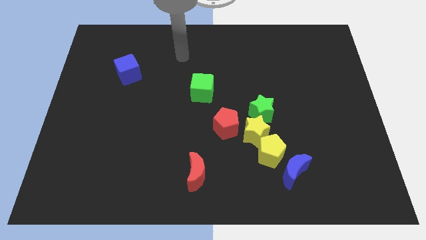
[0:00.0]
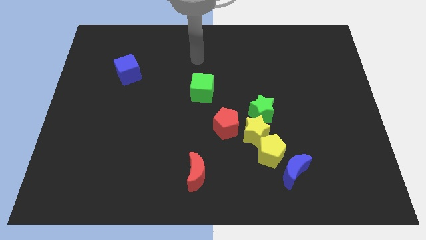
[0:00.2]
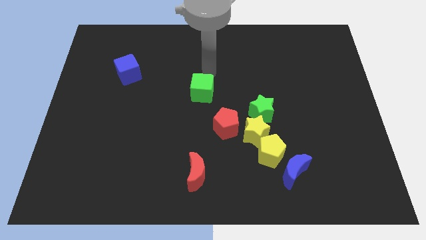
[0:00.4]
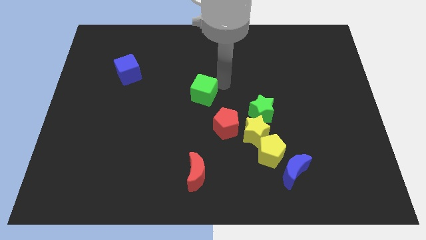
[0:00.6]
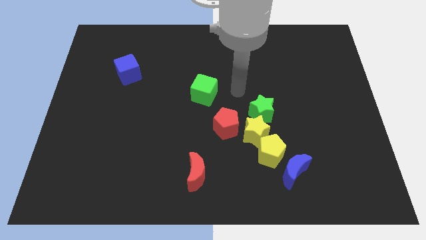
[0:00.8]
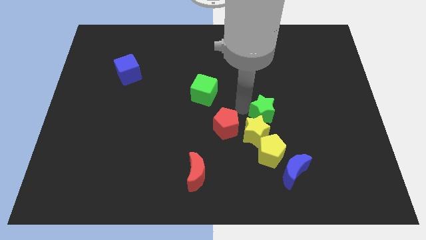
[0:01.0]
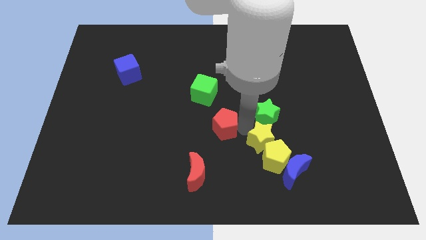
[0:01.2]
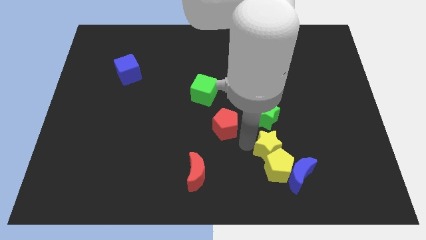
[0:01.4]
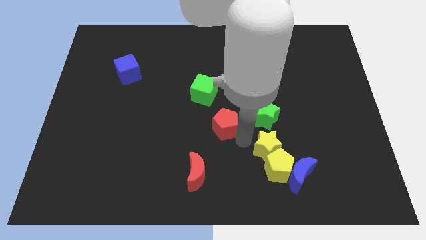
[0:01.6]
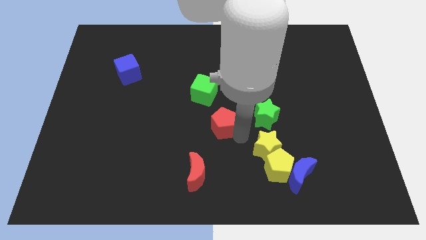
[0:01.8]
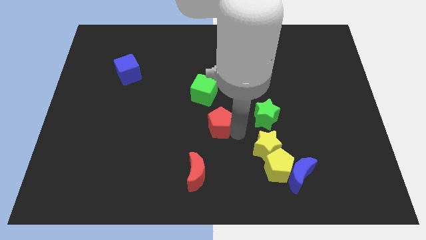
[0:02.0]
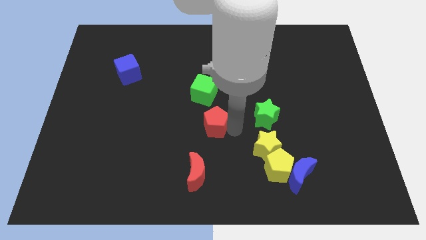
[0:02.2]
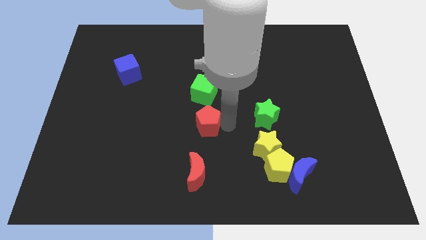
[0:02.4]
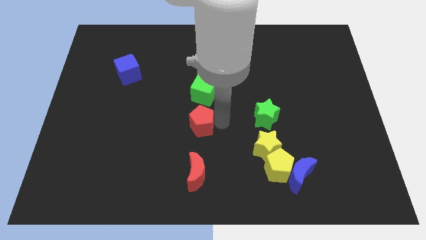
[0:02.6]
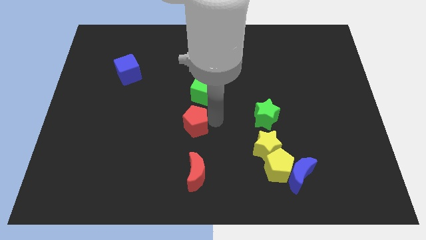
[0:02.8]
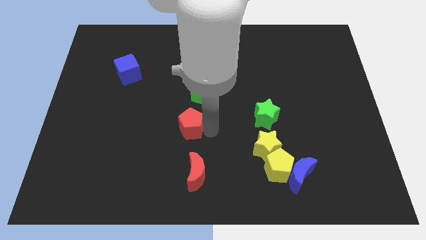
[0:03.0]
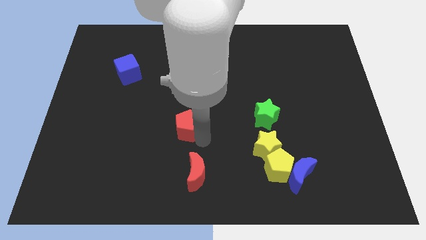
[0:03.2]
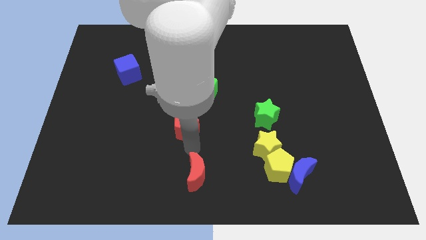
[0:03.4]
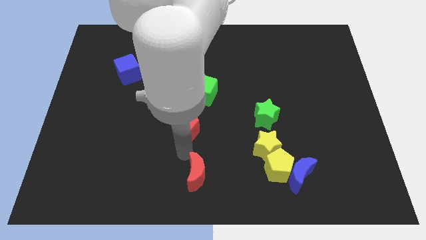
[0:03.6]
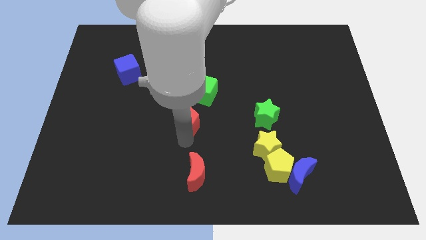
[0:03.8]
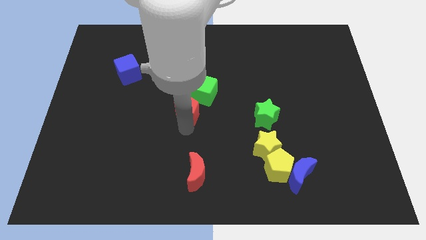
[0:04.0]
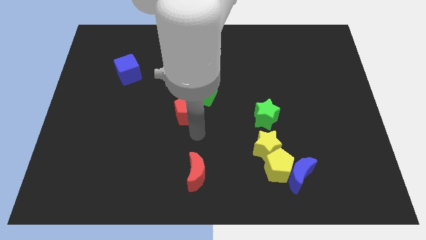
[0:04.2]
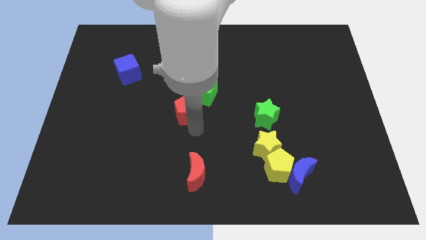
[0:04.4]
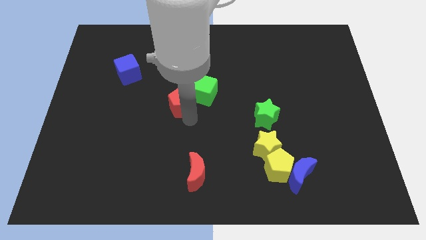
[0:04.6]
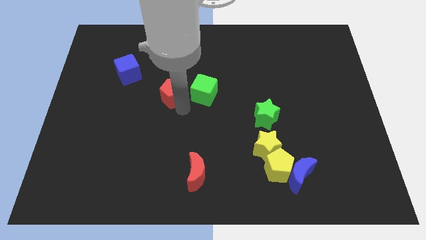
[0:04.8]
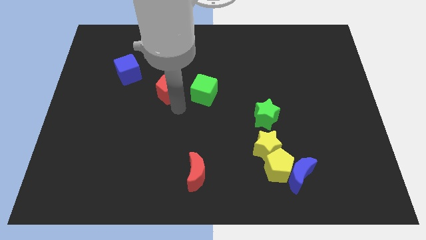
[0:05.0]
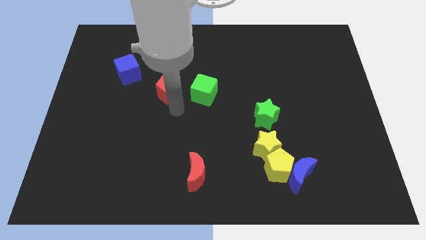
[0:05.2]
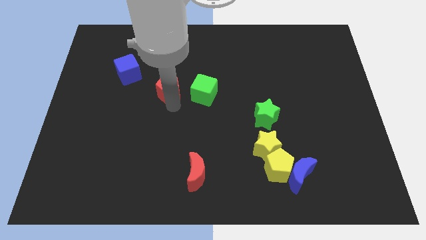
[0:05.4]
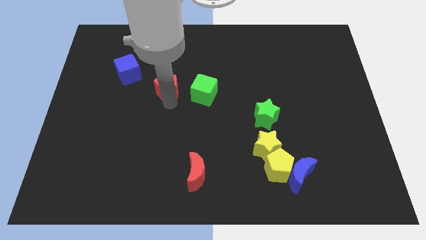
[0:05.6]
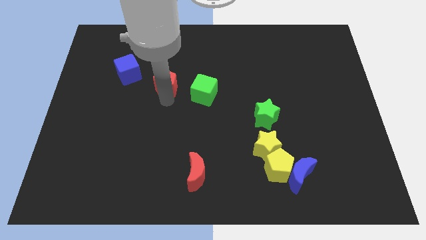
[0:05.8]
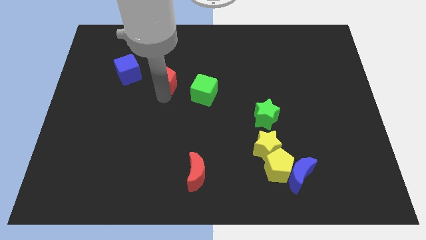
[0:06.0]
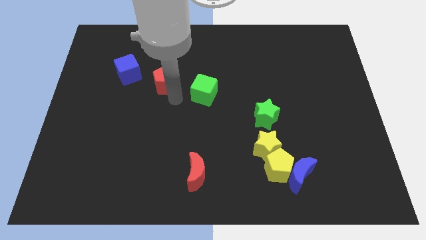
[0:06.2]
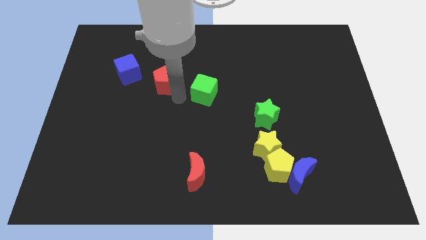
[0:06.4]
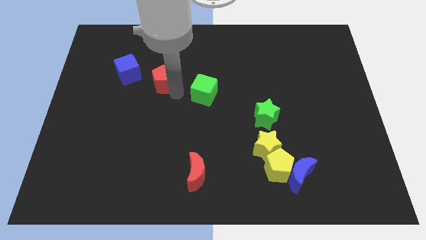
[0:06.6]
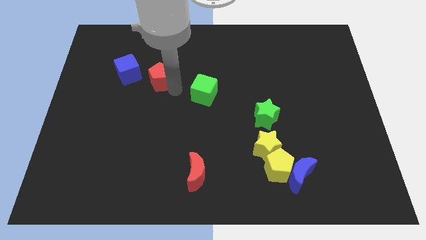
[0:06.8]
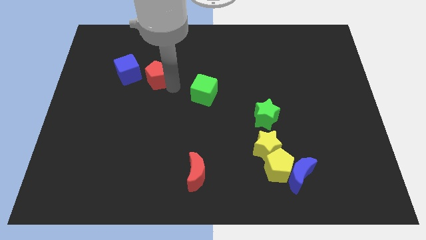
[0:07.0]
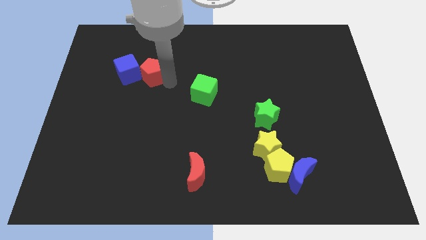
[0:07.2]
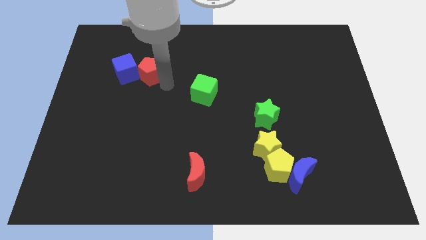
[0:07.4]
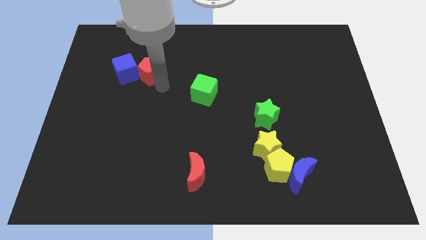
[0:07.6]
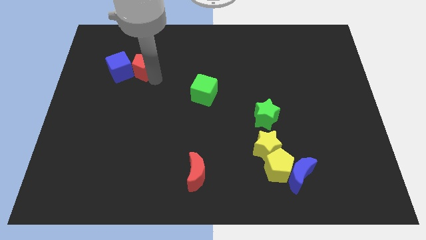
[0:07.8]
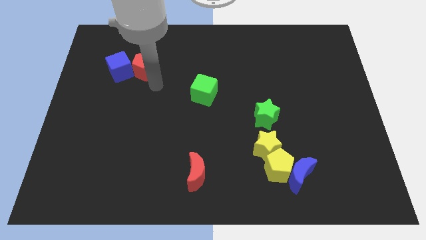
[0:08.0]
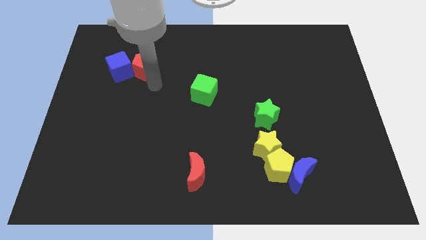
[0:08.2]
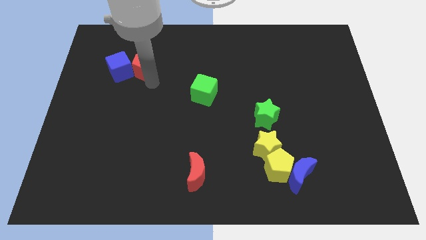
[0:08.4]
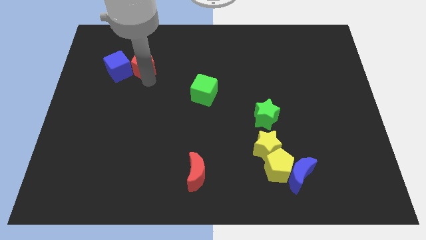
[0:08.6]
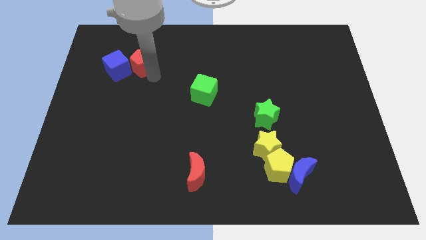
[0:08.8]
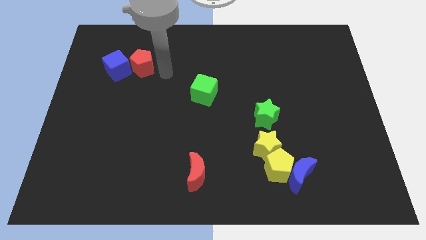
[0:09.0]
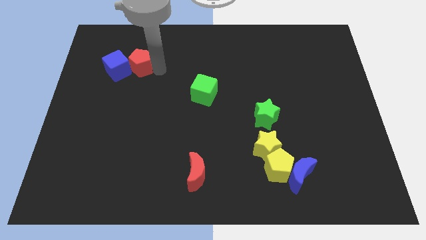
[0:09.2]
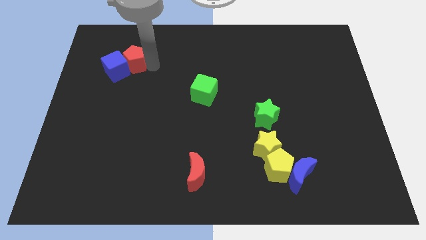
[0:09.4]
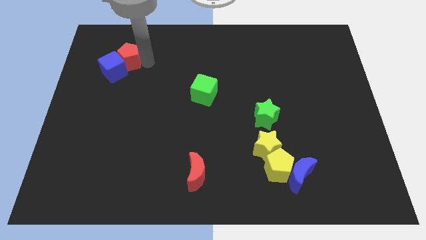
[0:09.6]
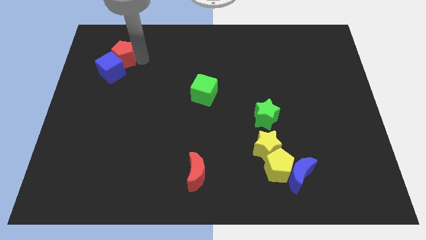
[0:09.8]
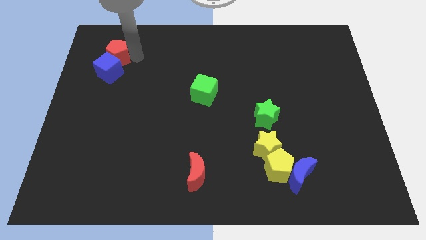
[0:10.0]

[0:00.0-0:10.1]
move the red pentagon diagonally up and to the left of the blue cube

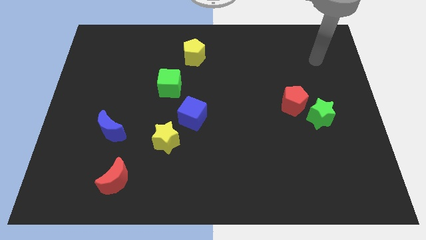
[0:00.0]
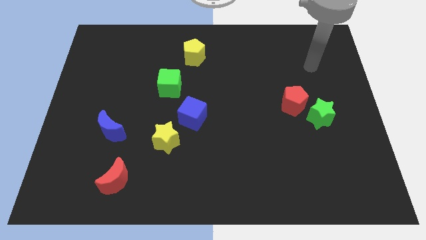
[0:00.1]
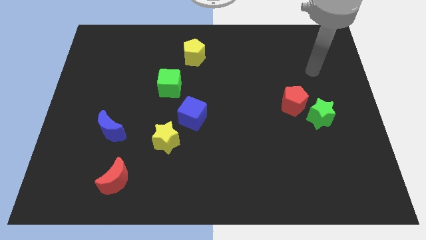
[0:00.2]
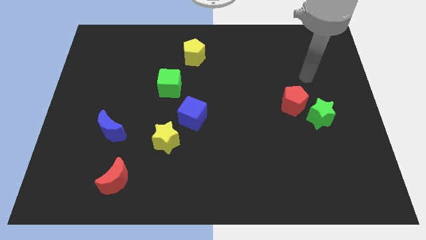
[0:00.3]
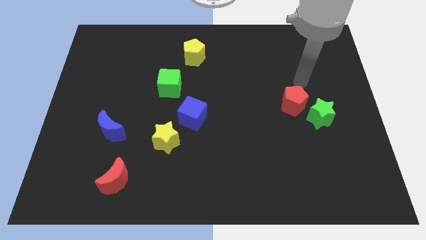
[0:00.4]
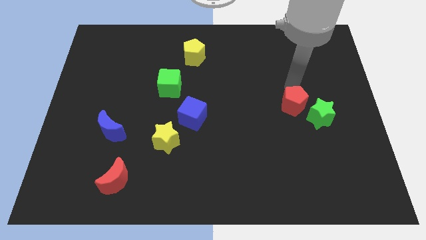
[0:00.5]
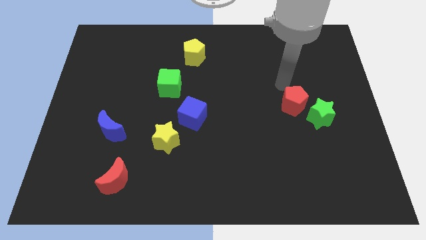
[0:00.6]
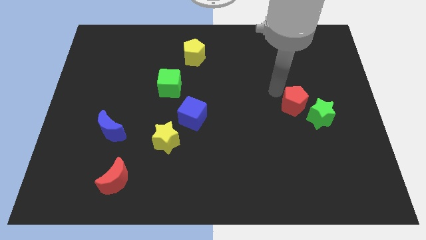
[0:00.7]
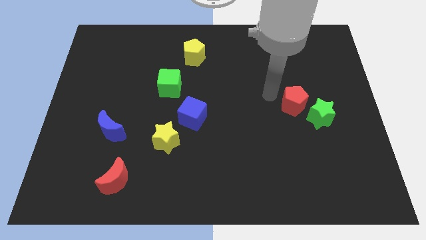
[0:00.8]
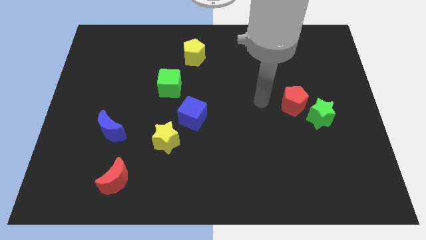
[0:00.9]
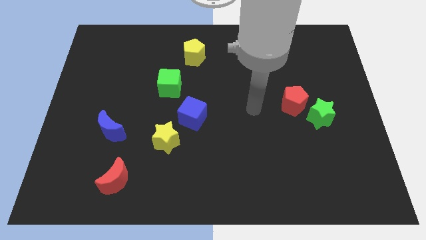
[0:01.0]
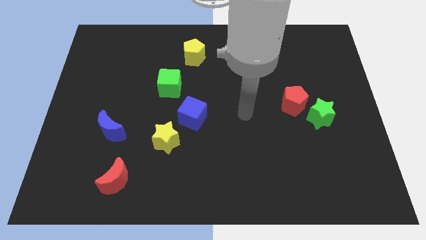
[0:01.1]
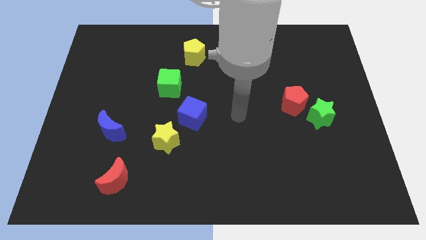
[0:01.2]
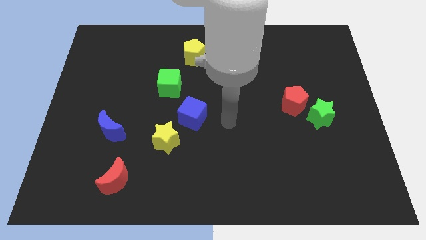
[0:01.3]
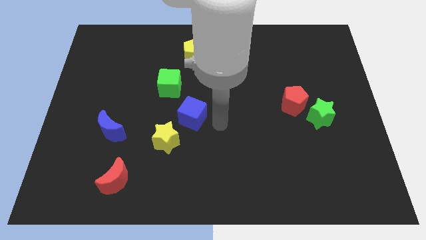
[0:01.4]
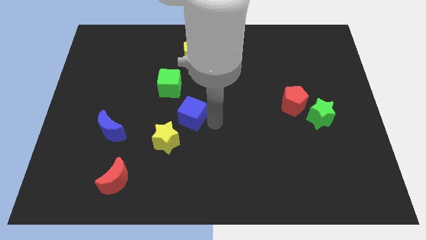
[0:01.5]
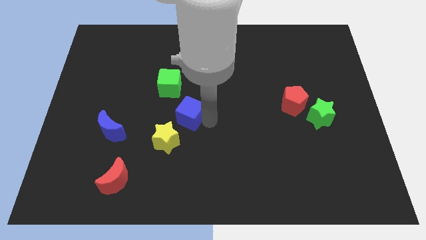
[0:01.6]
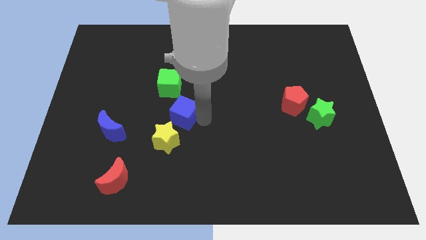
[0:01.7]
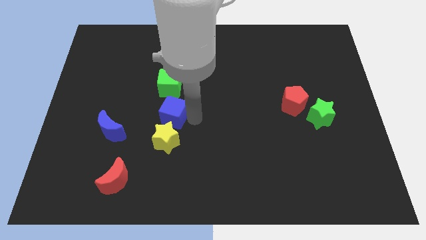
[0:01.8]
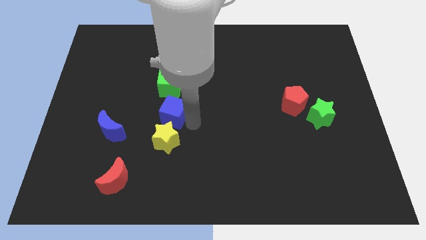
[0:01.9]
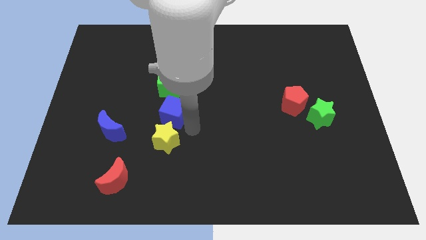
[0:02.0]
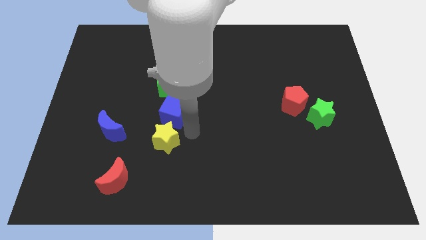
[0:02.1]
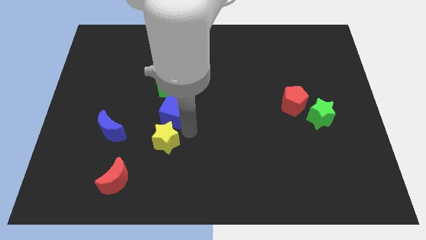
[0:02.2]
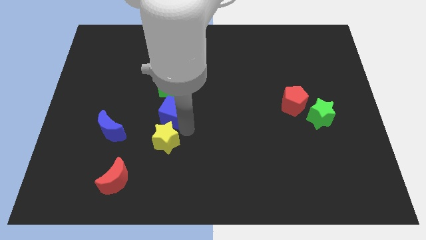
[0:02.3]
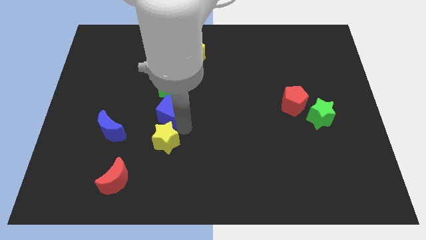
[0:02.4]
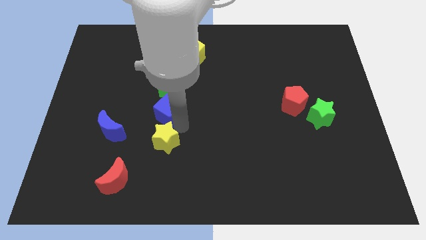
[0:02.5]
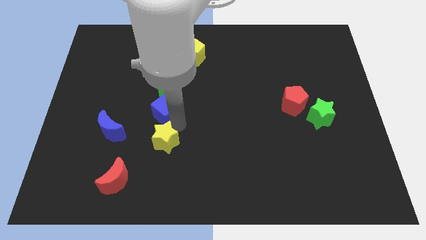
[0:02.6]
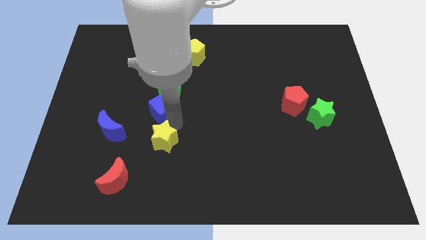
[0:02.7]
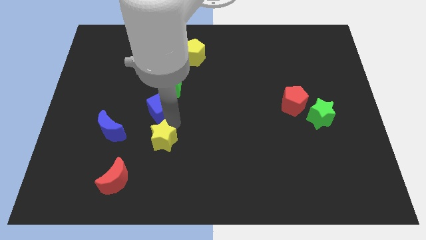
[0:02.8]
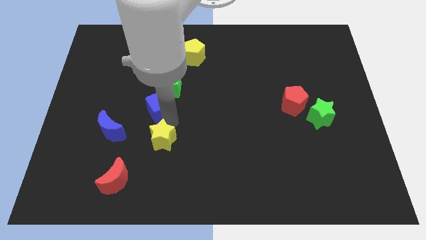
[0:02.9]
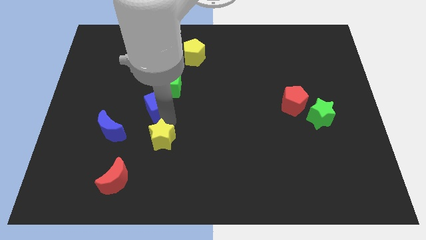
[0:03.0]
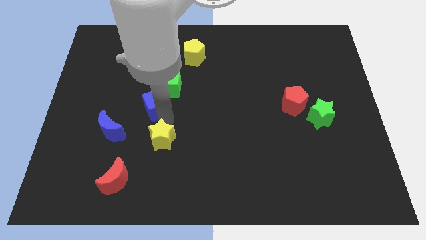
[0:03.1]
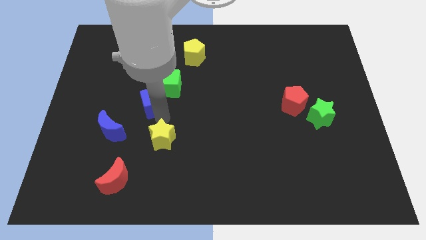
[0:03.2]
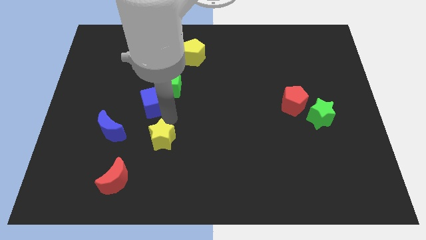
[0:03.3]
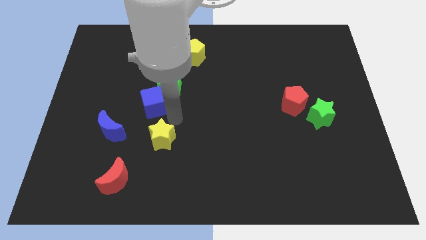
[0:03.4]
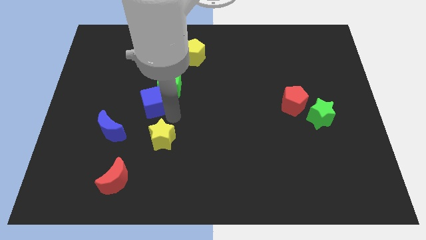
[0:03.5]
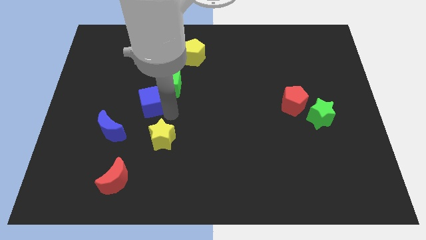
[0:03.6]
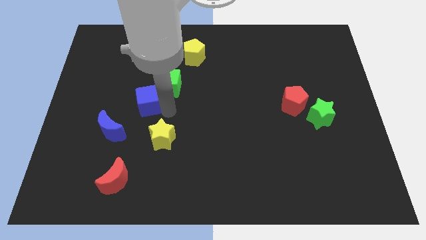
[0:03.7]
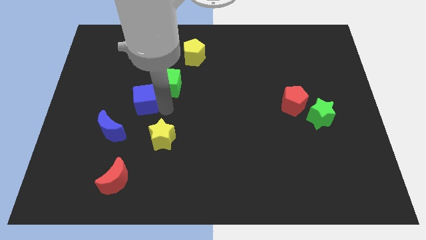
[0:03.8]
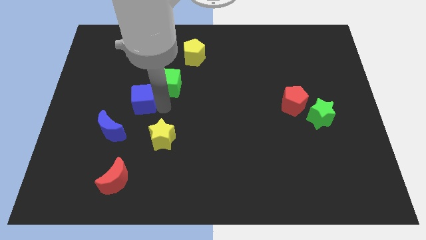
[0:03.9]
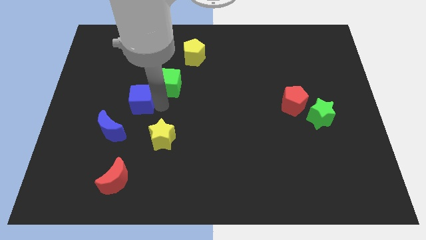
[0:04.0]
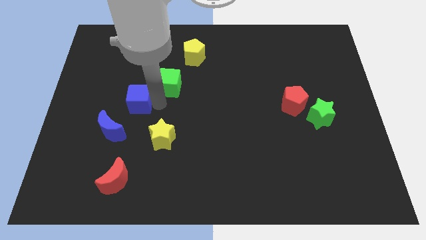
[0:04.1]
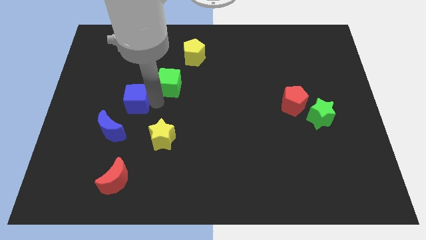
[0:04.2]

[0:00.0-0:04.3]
push the blue cube to the left side of the green cube
